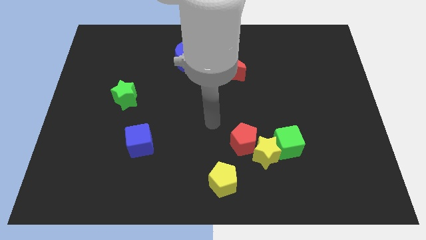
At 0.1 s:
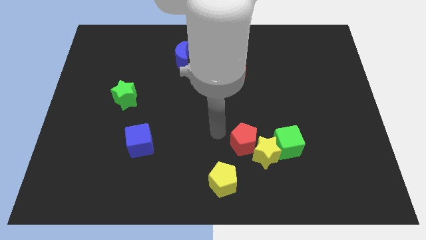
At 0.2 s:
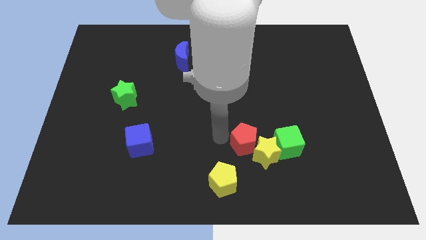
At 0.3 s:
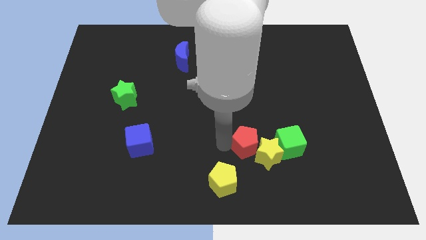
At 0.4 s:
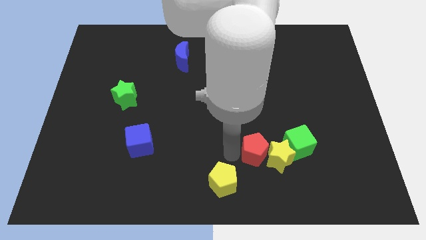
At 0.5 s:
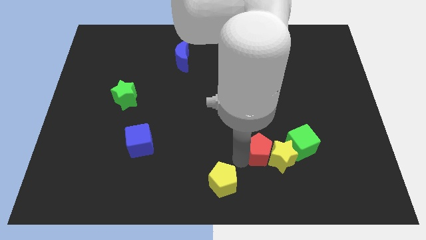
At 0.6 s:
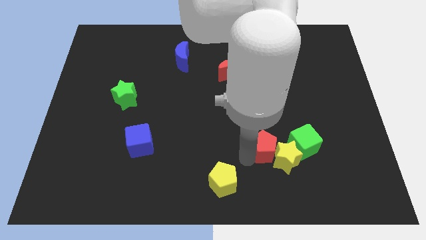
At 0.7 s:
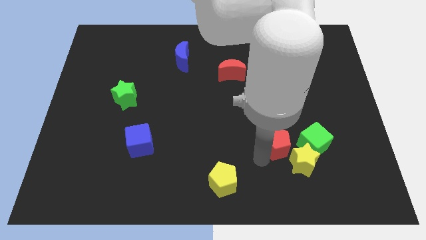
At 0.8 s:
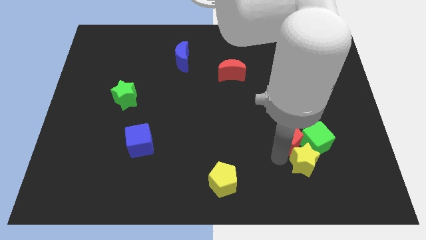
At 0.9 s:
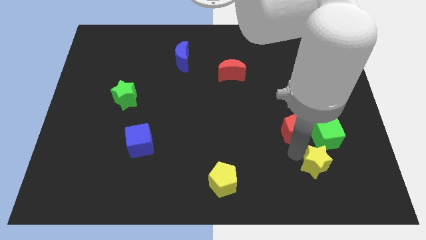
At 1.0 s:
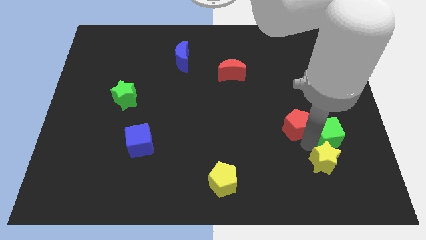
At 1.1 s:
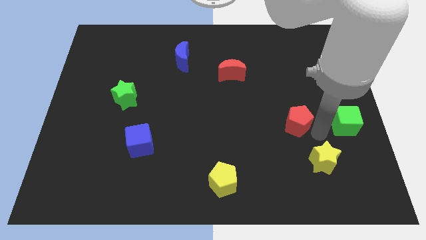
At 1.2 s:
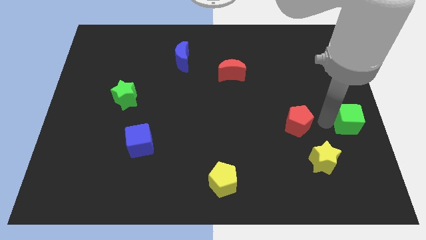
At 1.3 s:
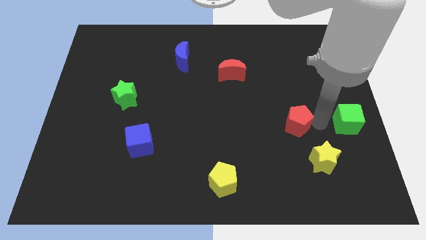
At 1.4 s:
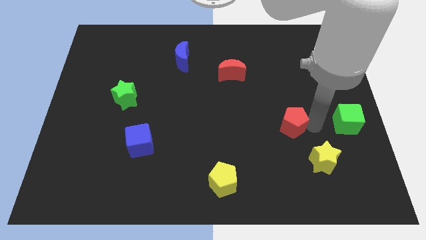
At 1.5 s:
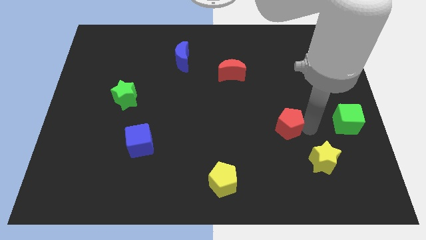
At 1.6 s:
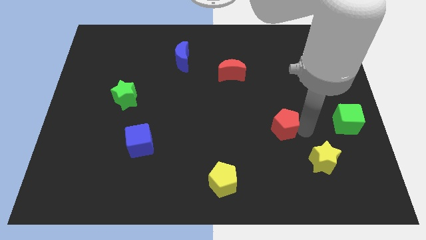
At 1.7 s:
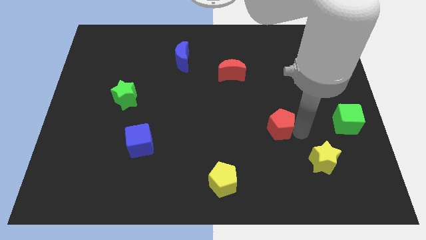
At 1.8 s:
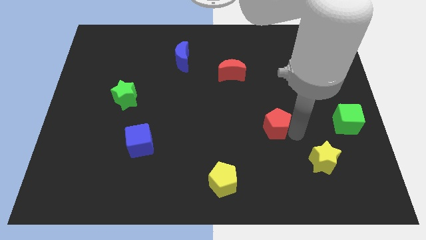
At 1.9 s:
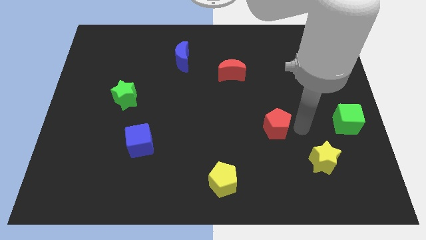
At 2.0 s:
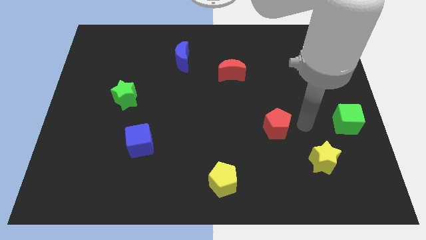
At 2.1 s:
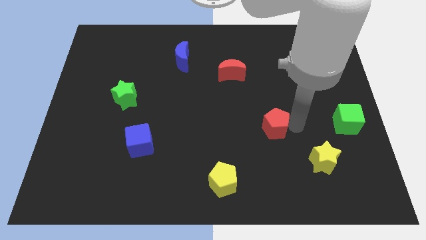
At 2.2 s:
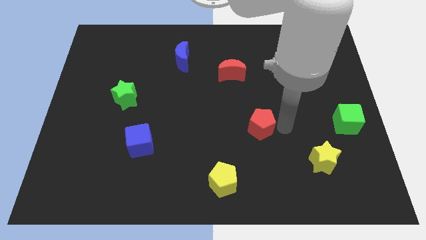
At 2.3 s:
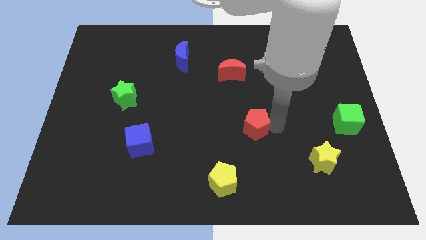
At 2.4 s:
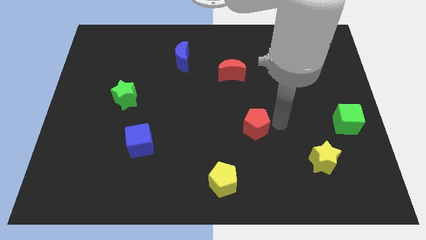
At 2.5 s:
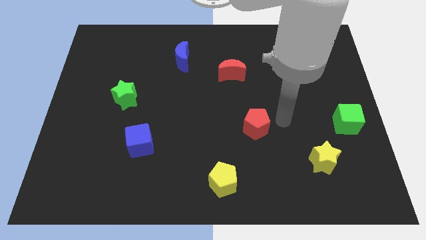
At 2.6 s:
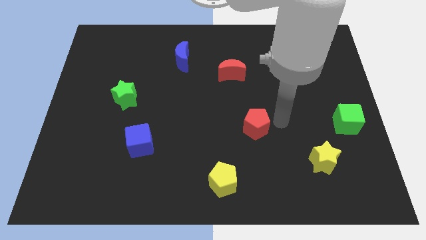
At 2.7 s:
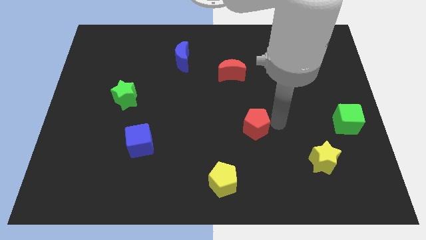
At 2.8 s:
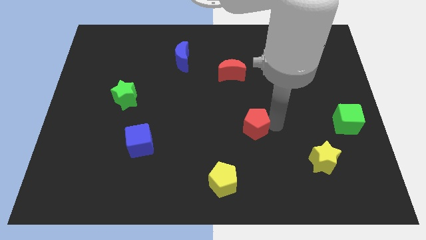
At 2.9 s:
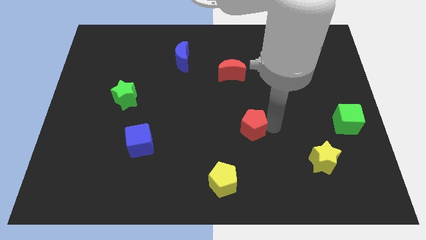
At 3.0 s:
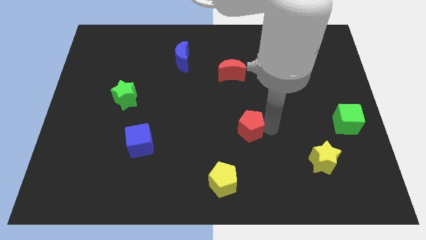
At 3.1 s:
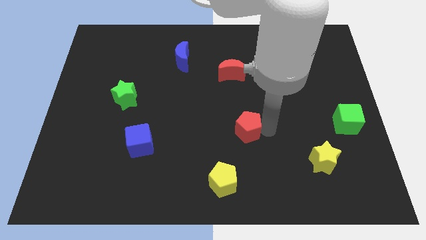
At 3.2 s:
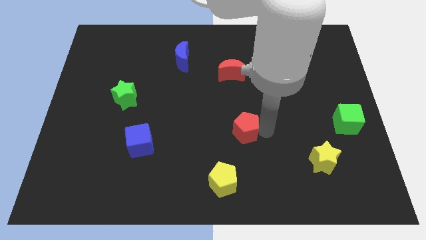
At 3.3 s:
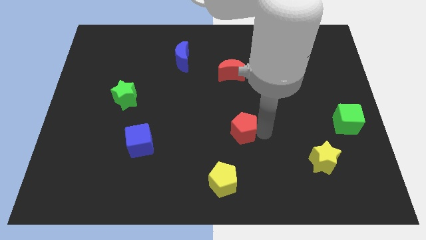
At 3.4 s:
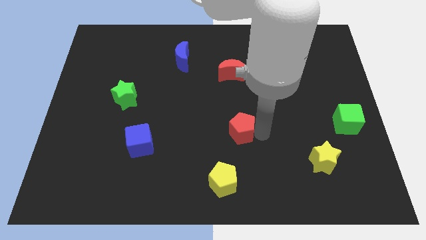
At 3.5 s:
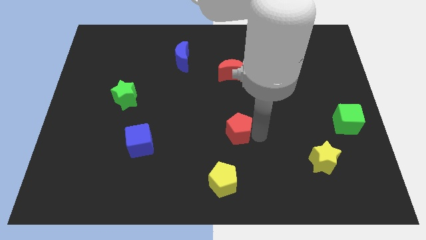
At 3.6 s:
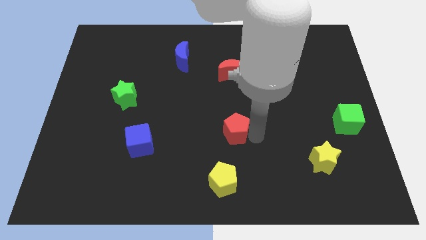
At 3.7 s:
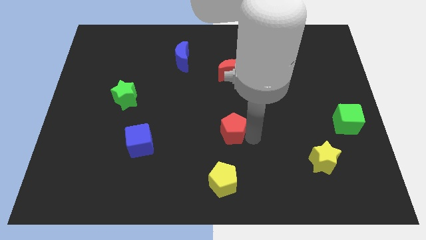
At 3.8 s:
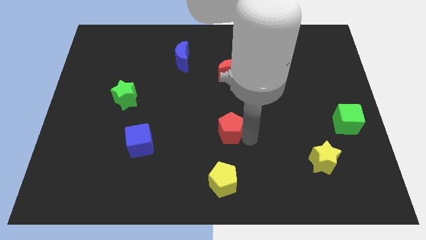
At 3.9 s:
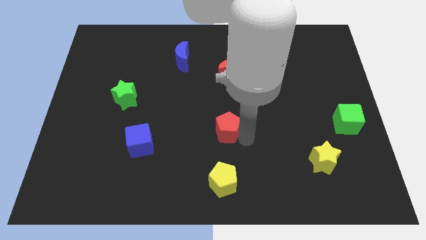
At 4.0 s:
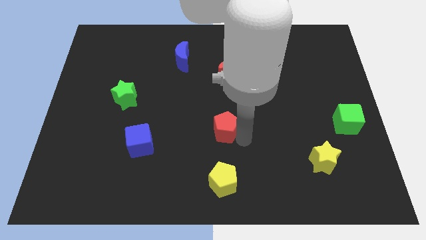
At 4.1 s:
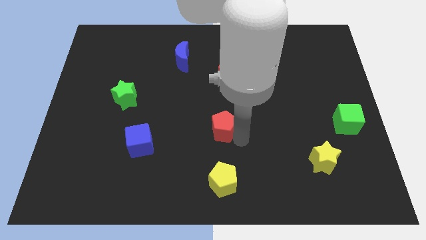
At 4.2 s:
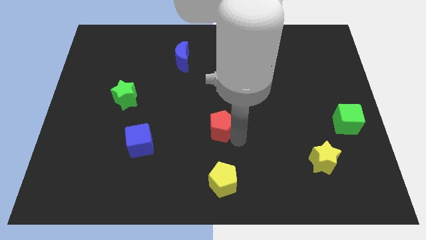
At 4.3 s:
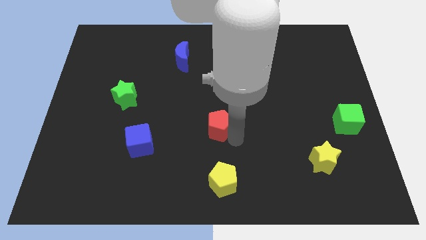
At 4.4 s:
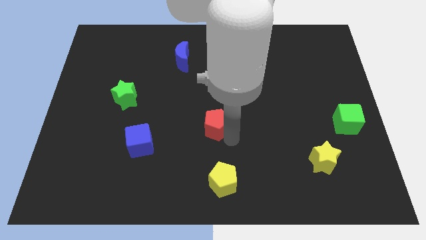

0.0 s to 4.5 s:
slide the red pentagon somewhat up and left diagonally

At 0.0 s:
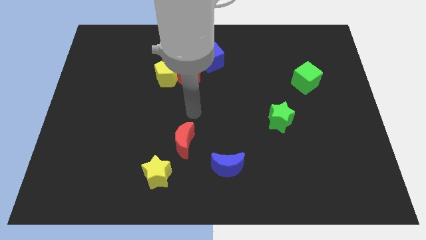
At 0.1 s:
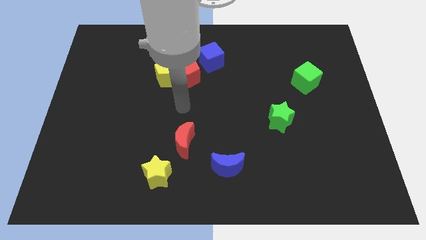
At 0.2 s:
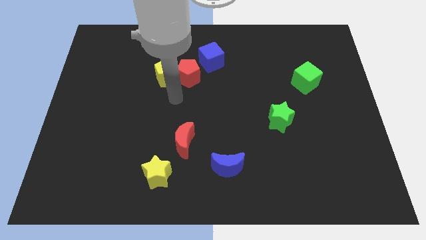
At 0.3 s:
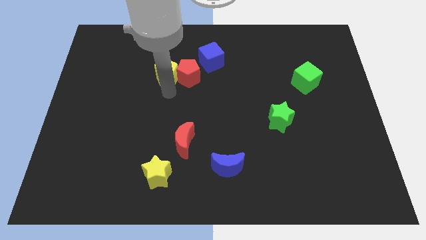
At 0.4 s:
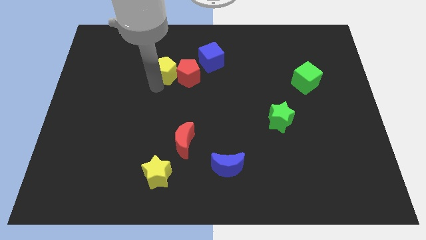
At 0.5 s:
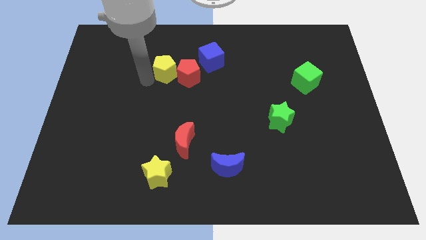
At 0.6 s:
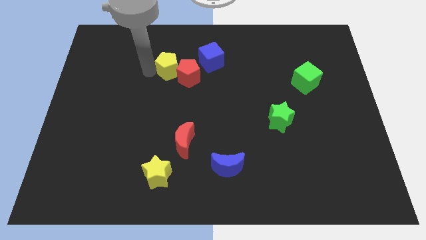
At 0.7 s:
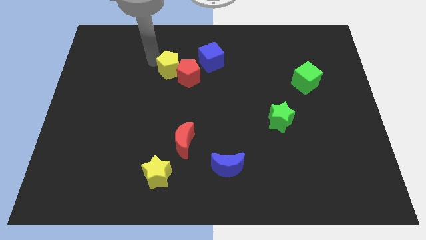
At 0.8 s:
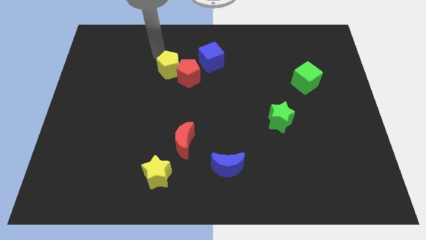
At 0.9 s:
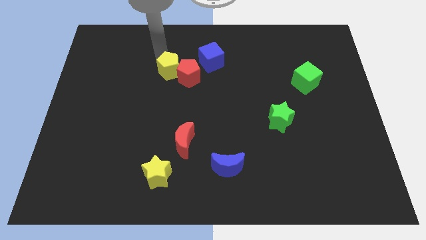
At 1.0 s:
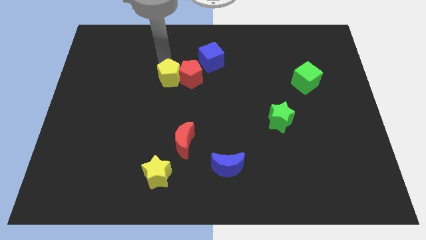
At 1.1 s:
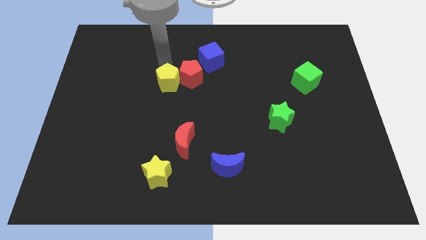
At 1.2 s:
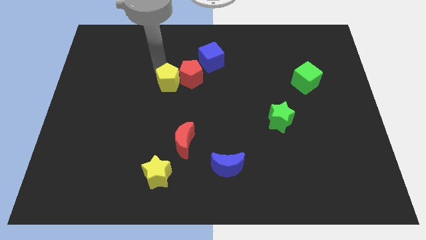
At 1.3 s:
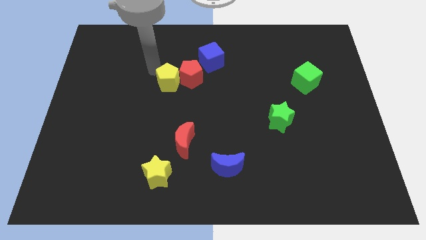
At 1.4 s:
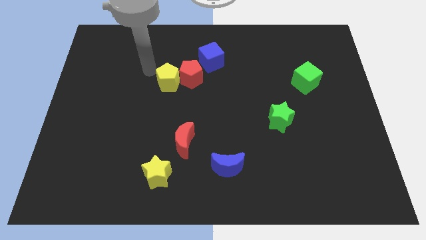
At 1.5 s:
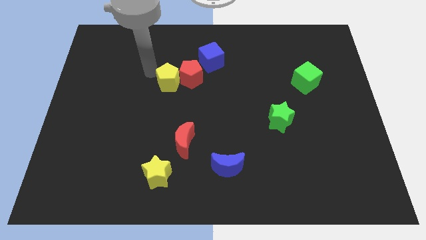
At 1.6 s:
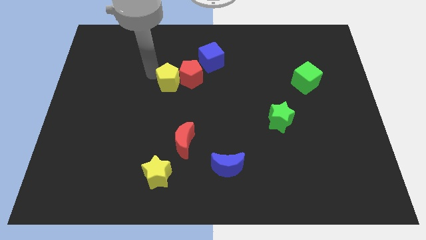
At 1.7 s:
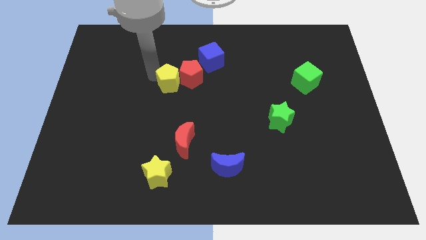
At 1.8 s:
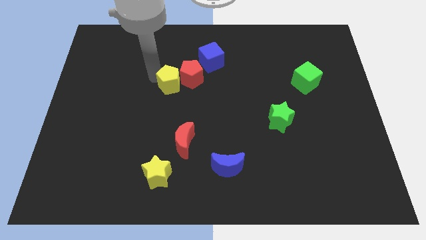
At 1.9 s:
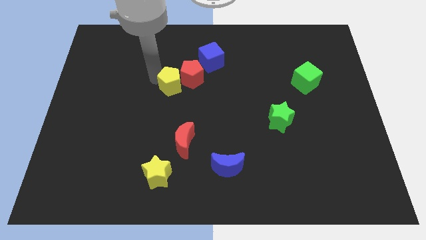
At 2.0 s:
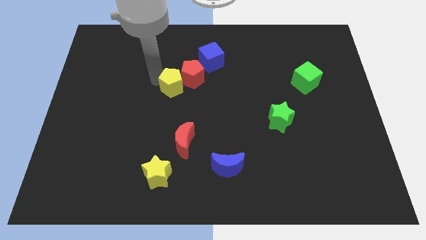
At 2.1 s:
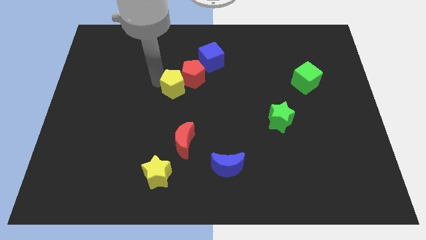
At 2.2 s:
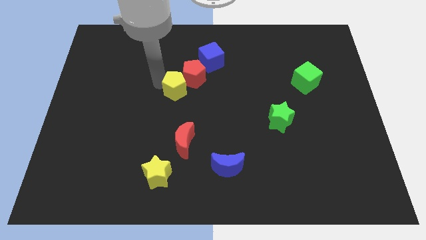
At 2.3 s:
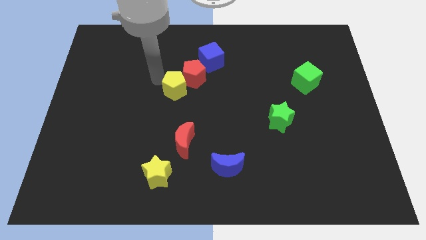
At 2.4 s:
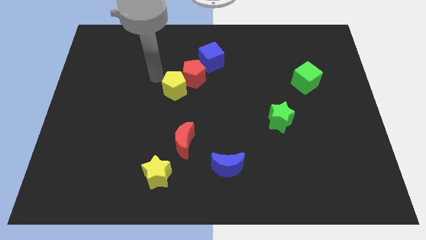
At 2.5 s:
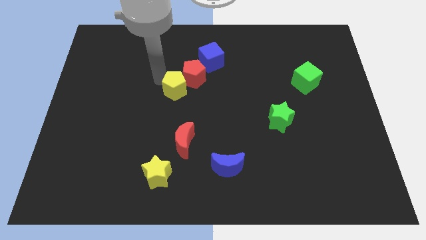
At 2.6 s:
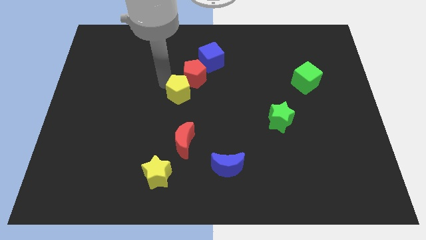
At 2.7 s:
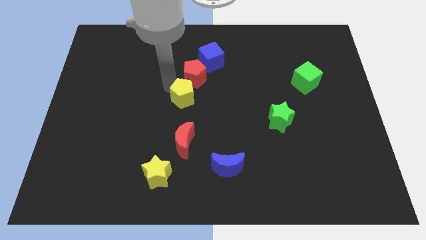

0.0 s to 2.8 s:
slightly slide the yellow pentagon downwards and right diagonally

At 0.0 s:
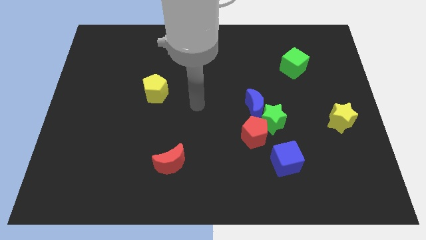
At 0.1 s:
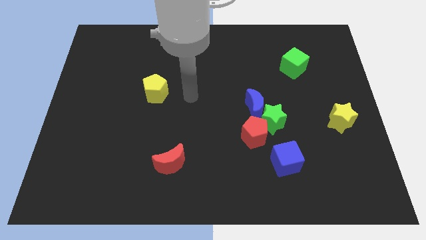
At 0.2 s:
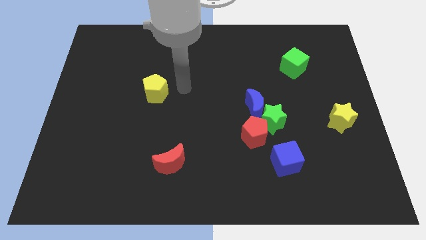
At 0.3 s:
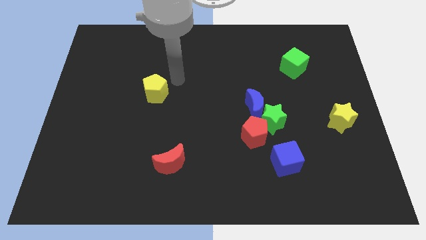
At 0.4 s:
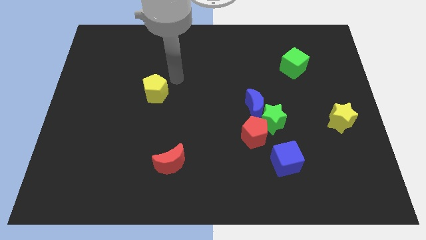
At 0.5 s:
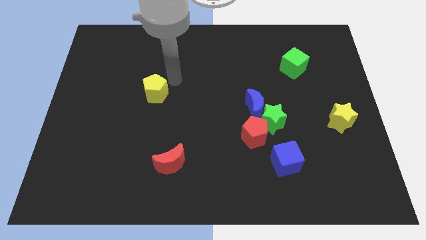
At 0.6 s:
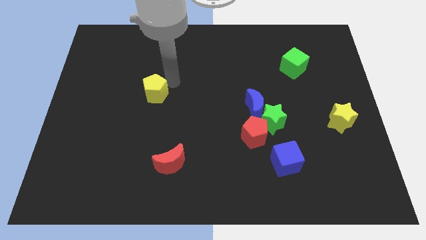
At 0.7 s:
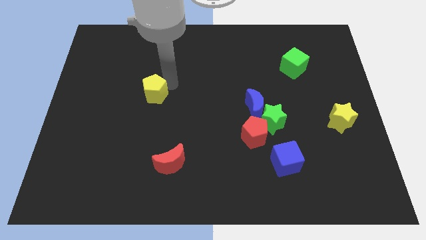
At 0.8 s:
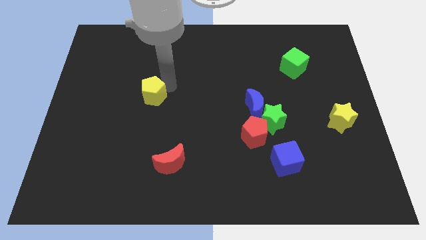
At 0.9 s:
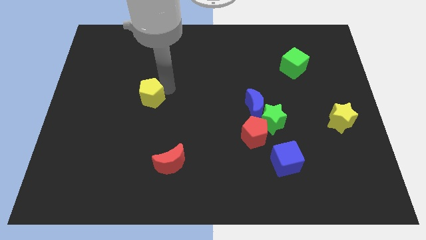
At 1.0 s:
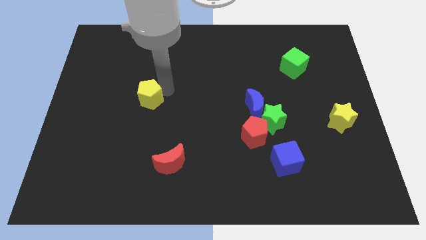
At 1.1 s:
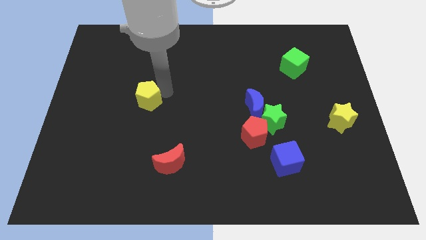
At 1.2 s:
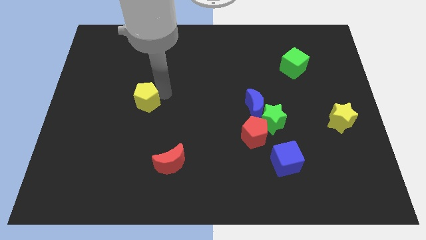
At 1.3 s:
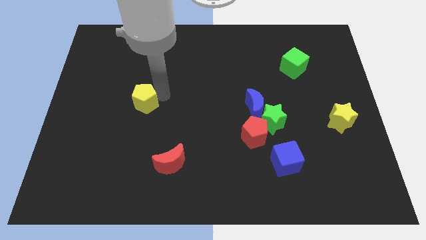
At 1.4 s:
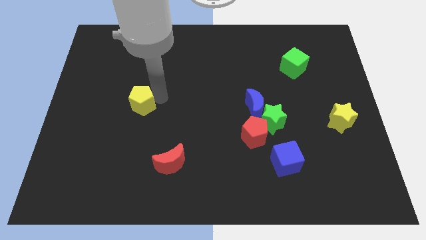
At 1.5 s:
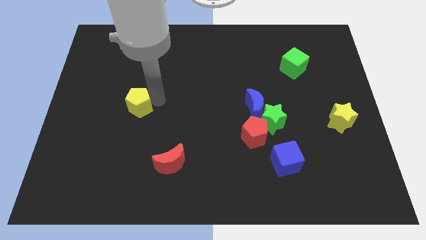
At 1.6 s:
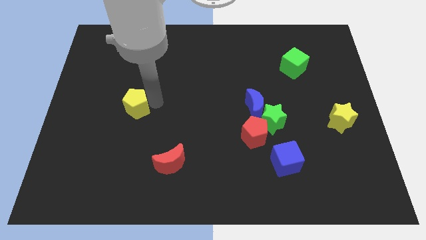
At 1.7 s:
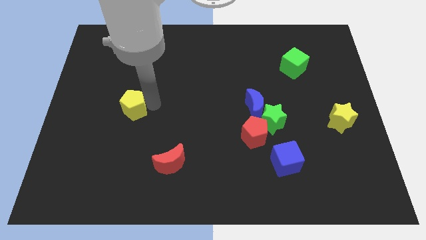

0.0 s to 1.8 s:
slightly push the yellow pentagon down and left diagonally
